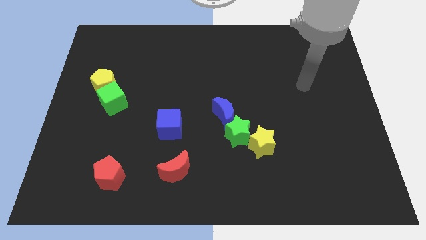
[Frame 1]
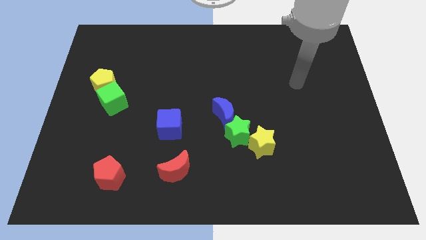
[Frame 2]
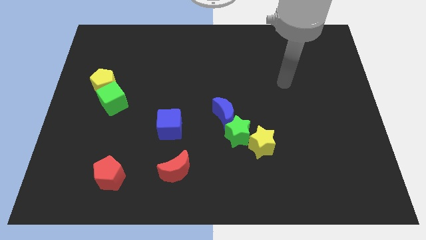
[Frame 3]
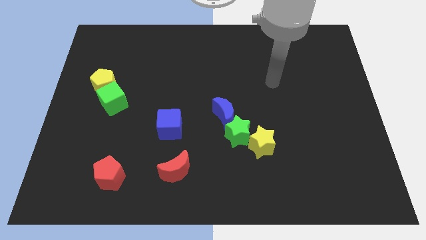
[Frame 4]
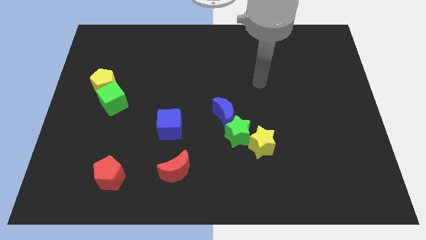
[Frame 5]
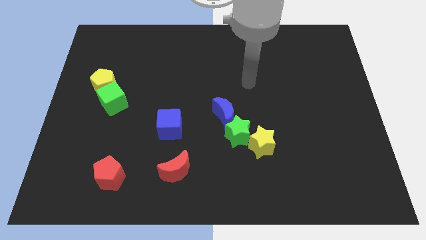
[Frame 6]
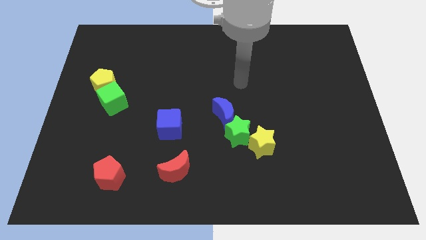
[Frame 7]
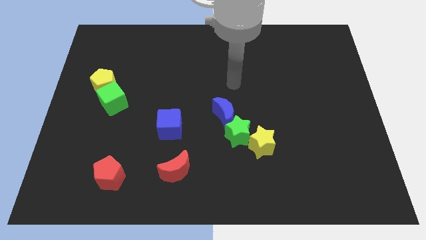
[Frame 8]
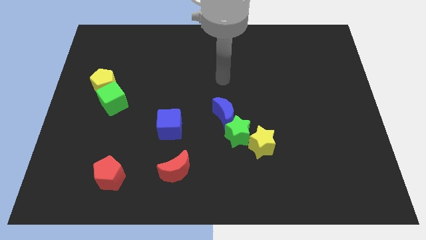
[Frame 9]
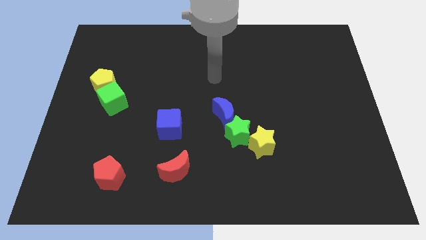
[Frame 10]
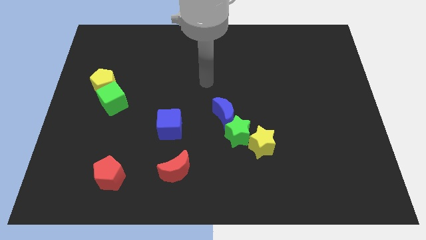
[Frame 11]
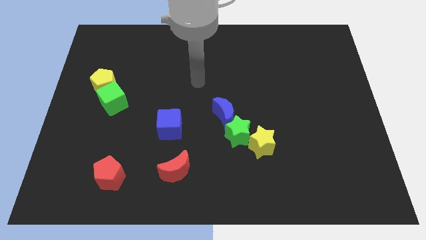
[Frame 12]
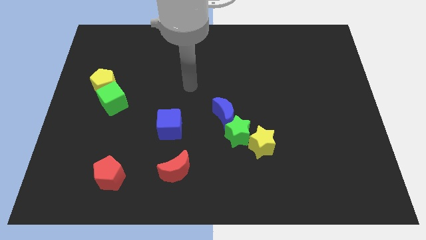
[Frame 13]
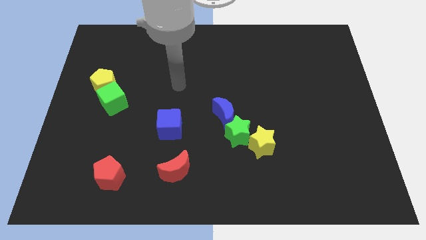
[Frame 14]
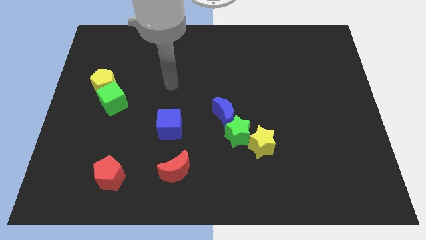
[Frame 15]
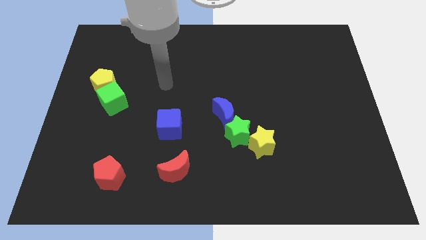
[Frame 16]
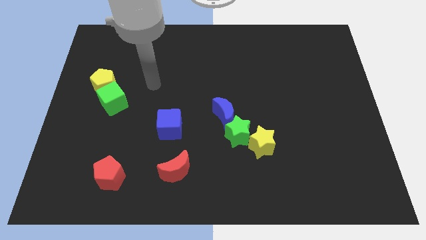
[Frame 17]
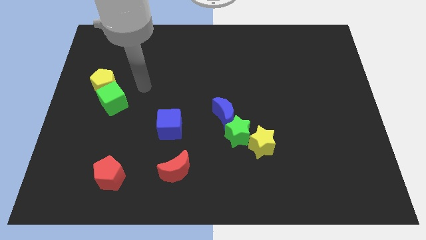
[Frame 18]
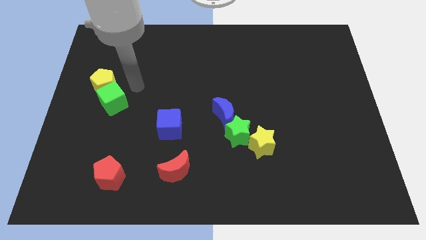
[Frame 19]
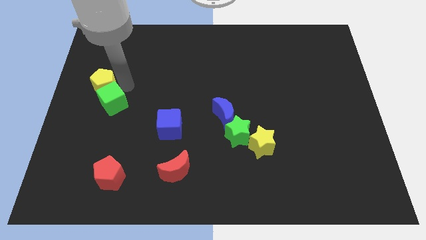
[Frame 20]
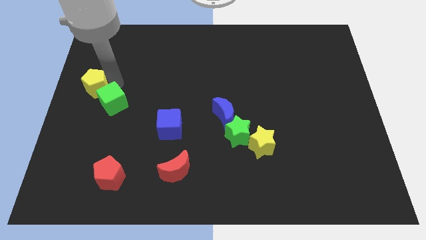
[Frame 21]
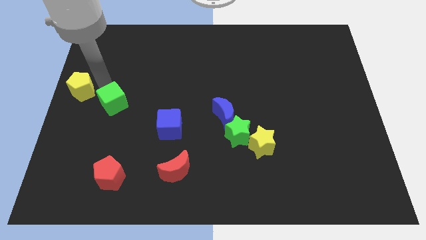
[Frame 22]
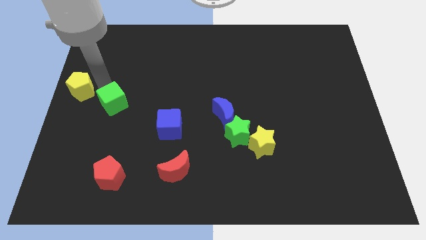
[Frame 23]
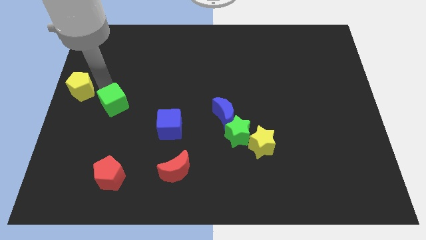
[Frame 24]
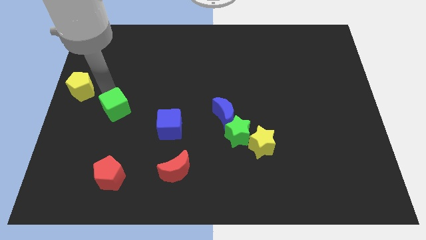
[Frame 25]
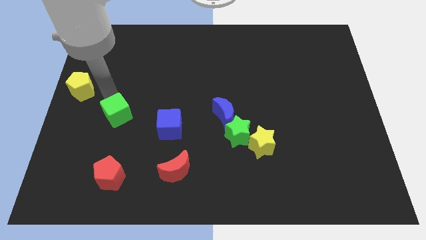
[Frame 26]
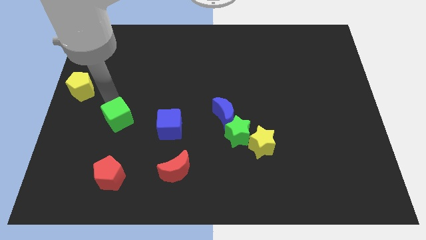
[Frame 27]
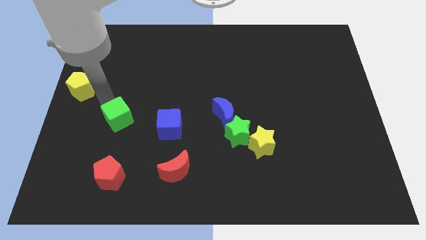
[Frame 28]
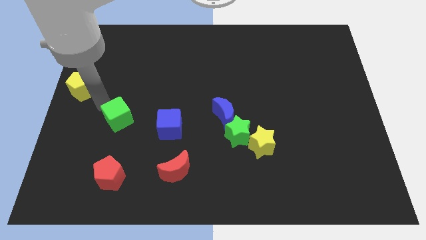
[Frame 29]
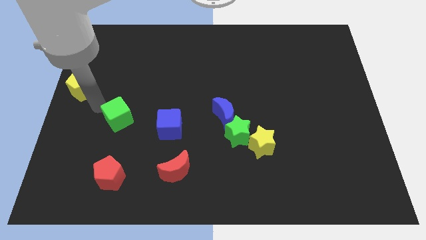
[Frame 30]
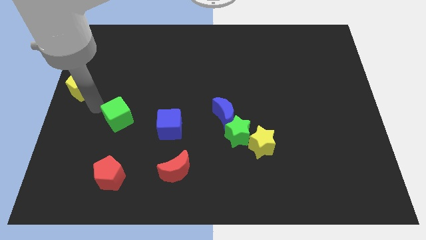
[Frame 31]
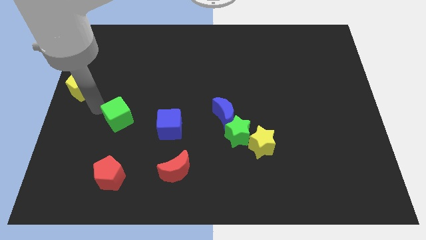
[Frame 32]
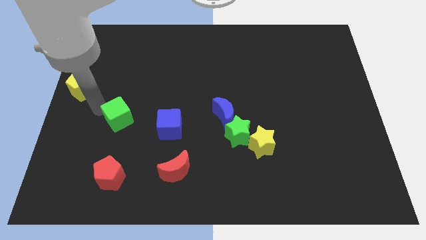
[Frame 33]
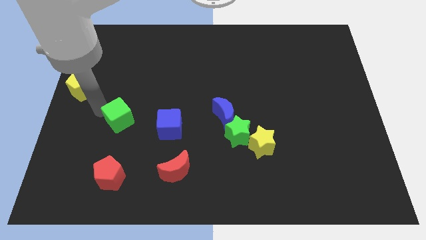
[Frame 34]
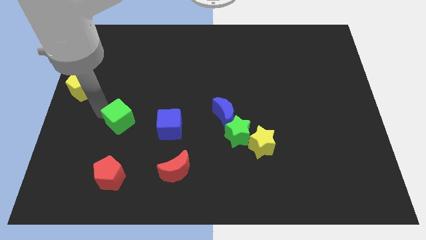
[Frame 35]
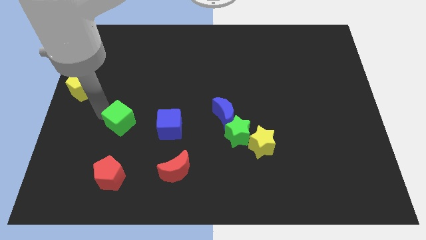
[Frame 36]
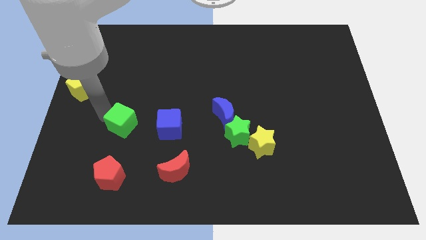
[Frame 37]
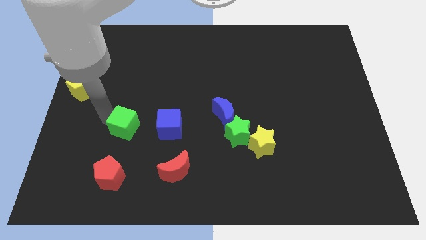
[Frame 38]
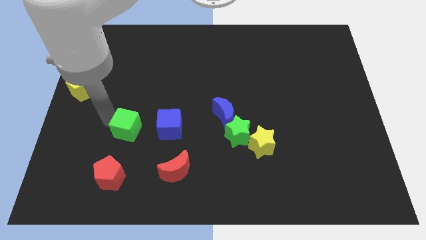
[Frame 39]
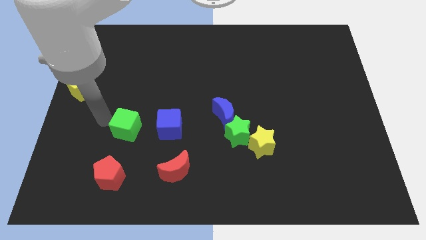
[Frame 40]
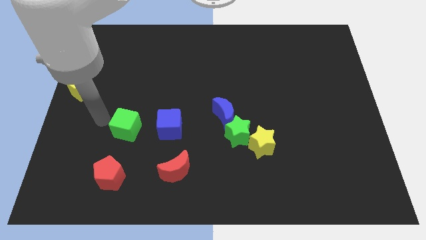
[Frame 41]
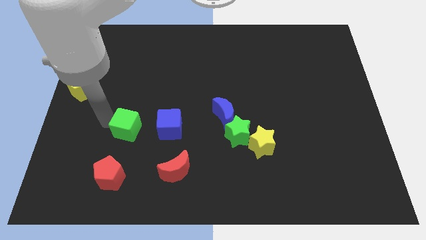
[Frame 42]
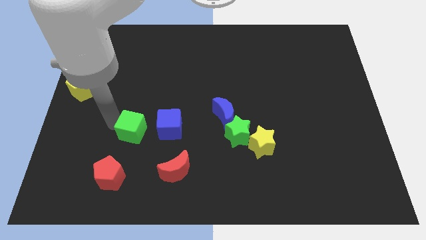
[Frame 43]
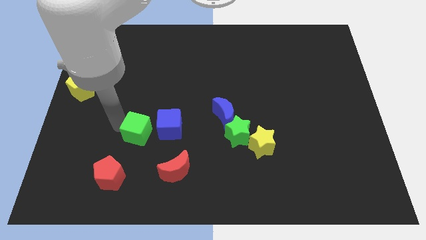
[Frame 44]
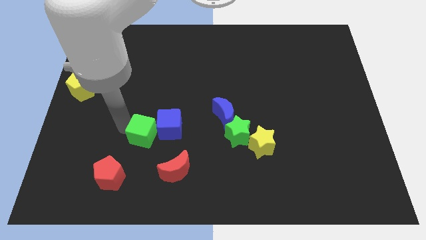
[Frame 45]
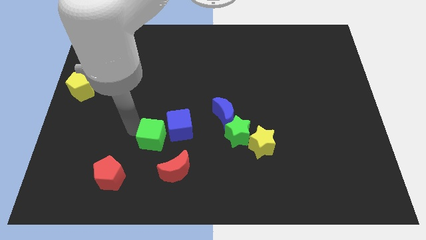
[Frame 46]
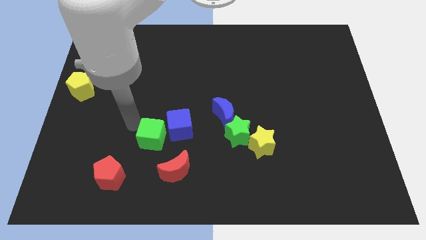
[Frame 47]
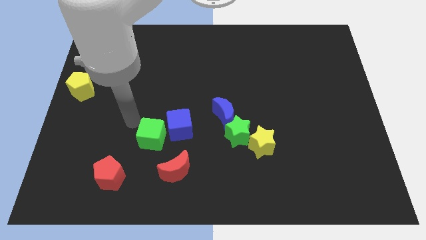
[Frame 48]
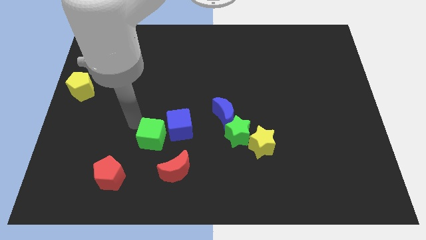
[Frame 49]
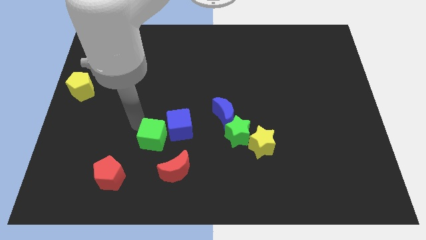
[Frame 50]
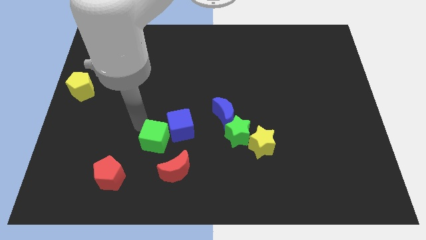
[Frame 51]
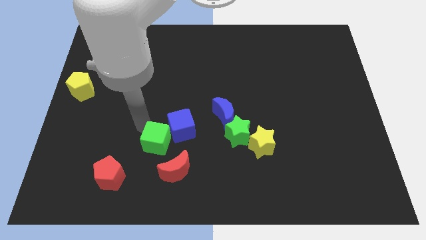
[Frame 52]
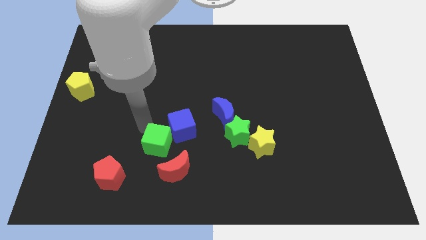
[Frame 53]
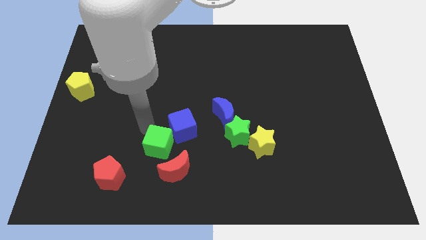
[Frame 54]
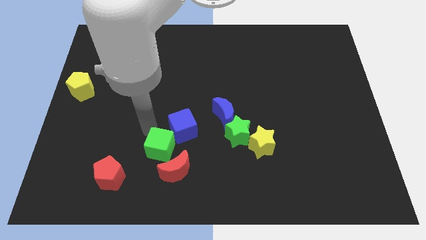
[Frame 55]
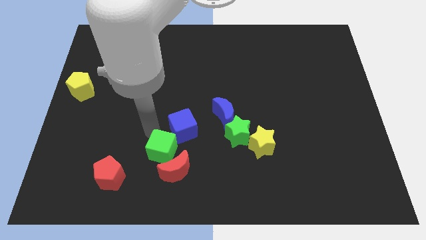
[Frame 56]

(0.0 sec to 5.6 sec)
move the green cube to the red moon
